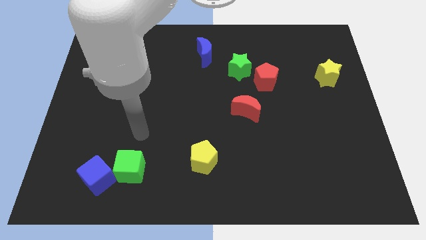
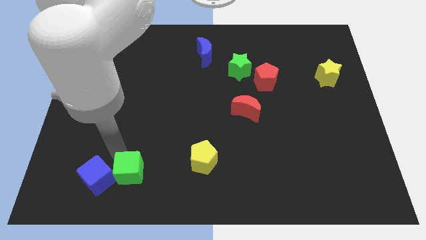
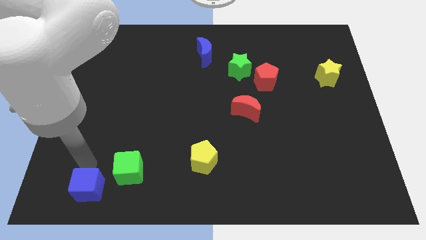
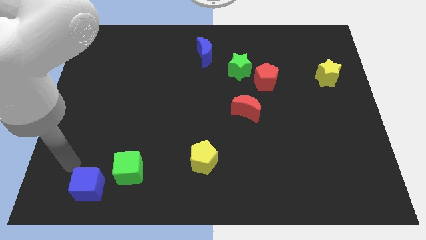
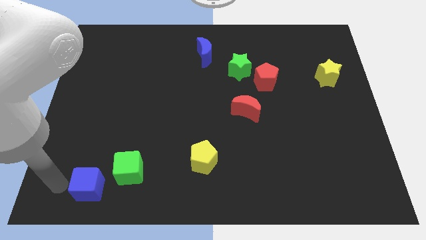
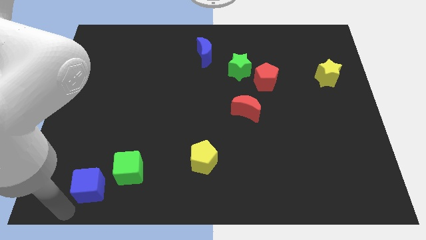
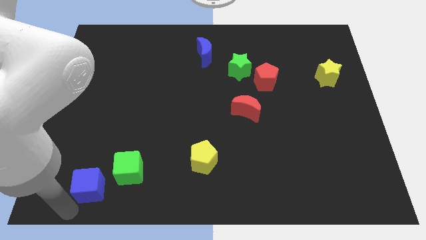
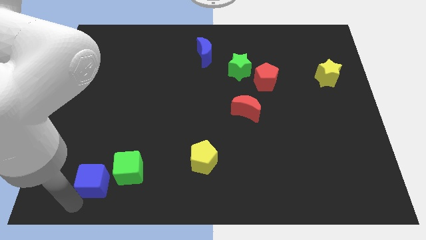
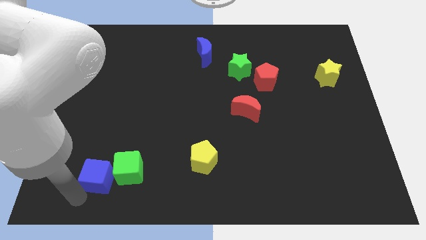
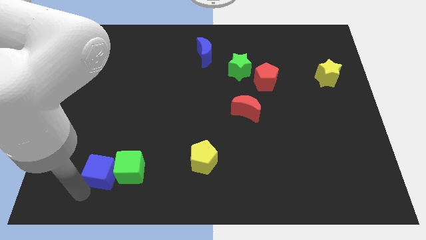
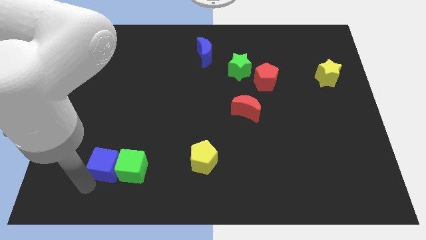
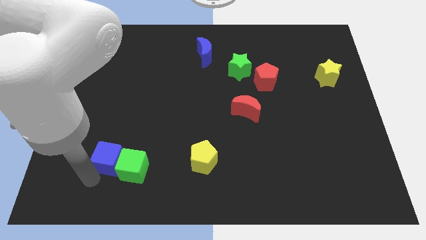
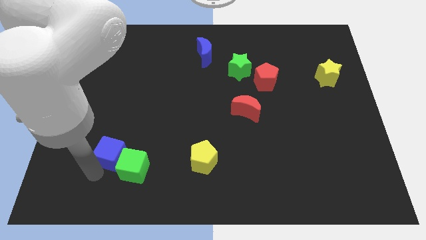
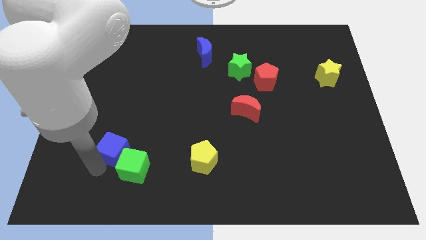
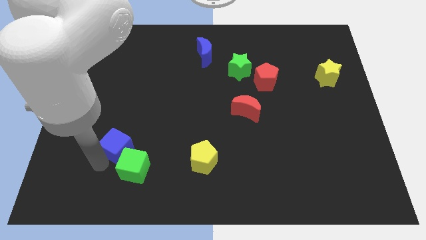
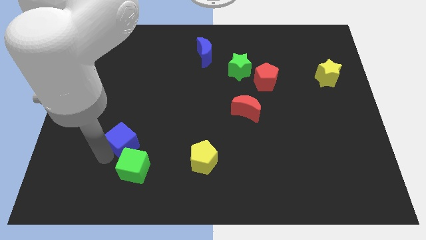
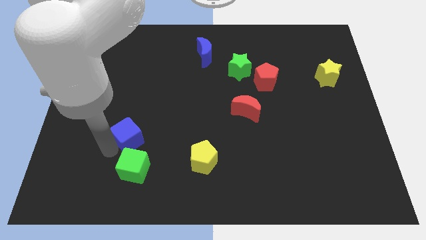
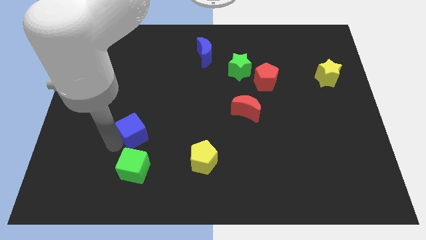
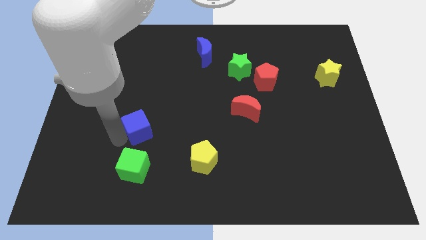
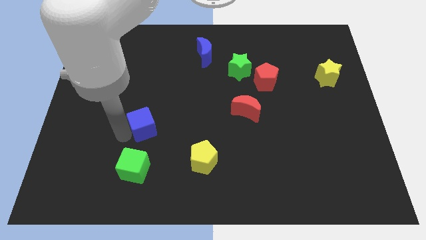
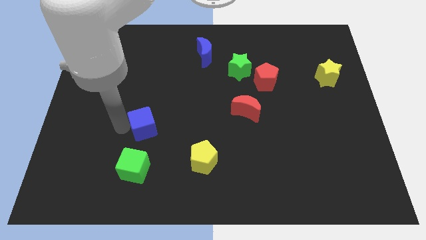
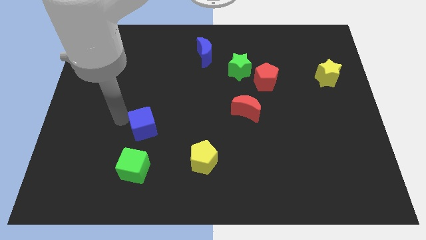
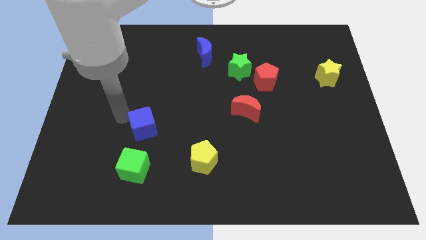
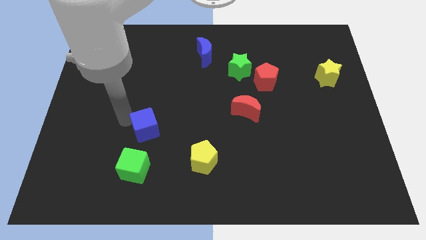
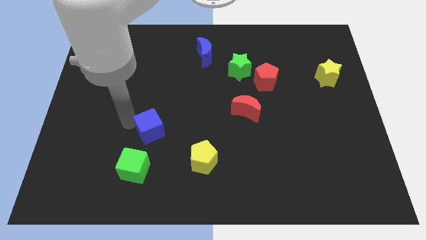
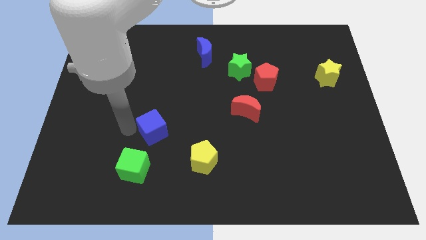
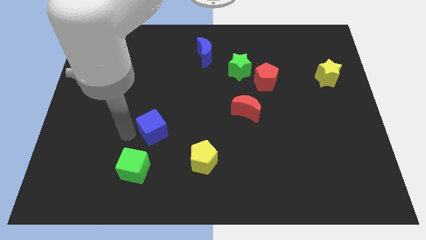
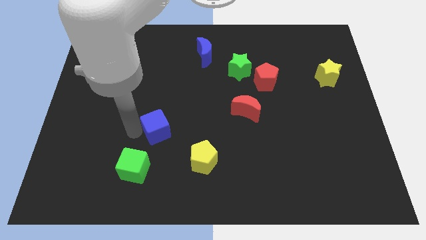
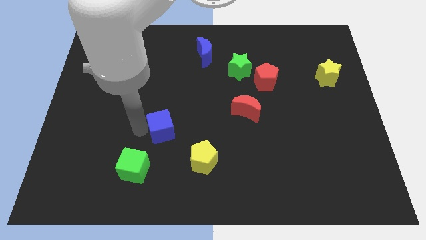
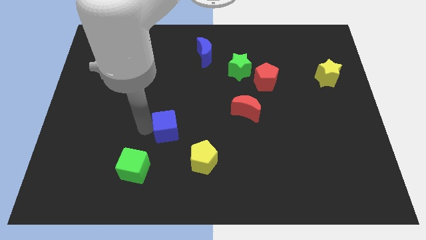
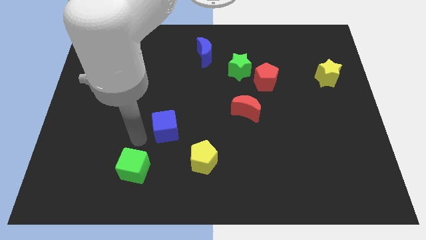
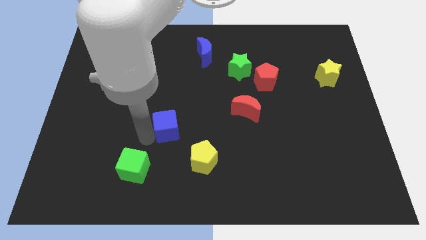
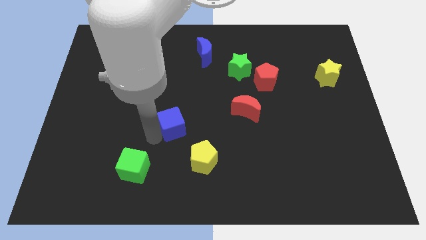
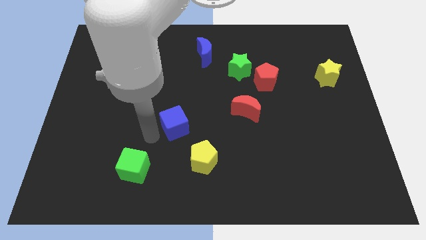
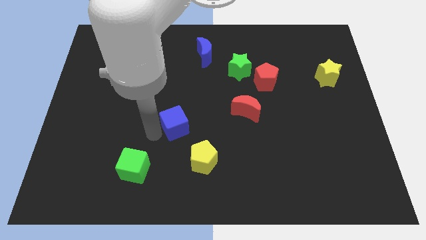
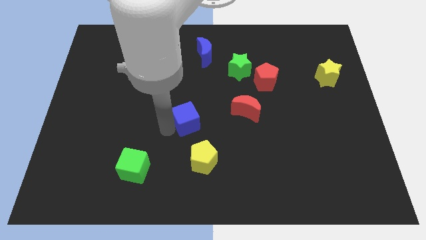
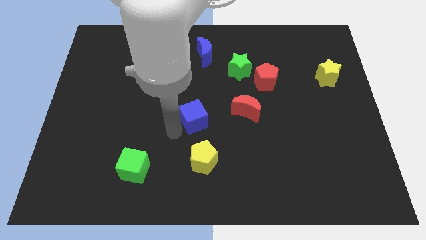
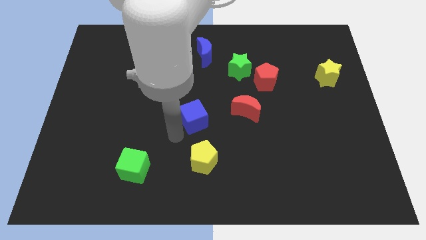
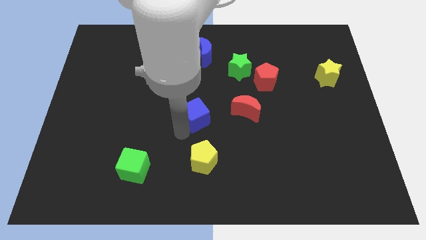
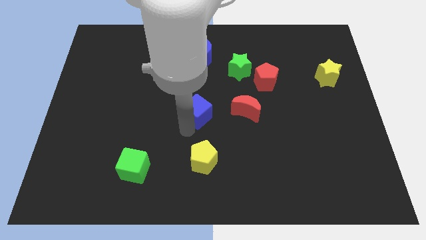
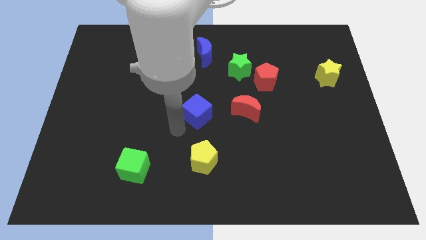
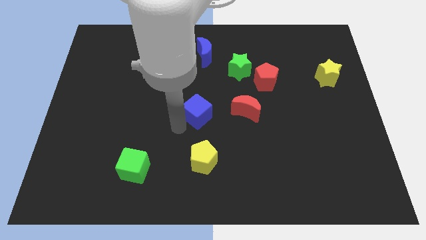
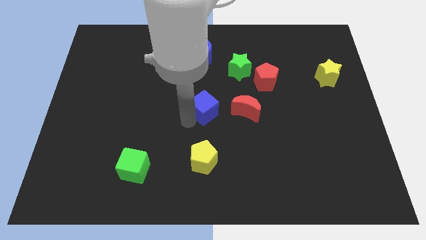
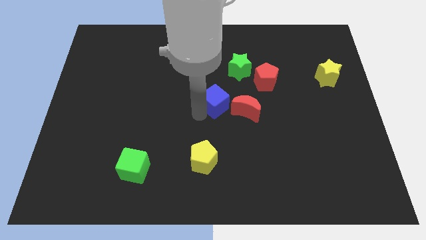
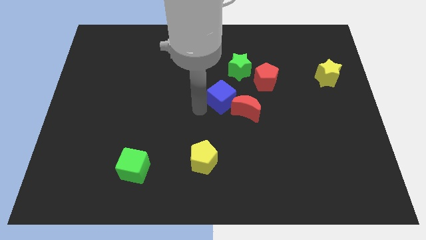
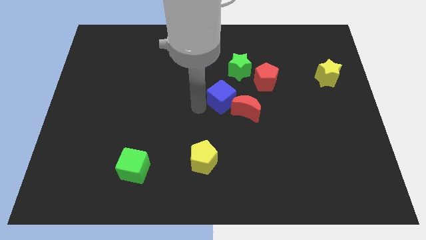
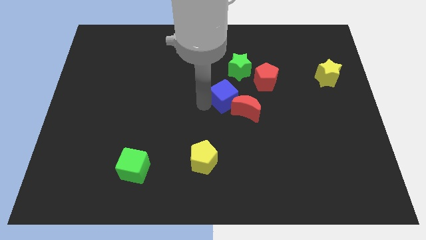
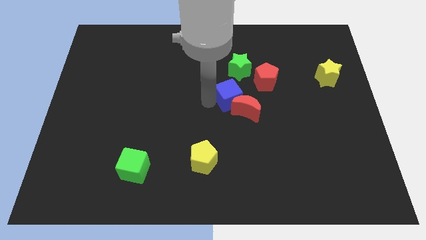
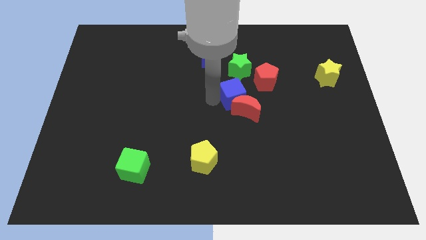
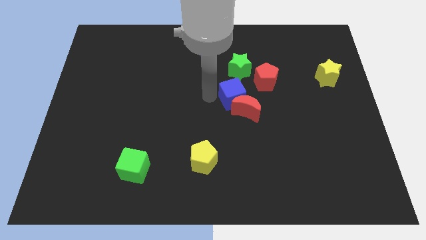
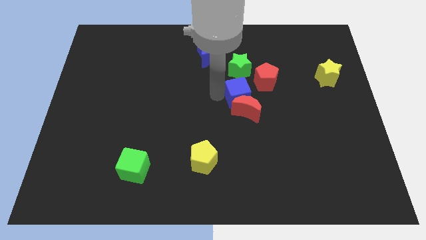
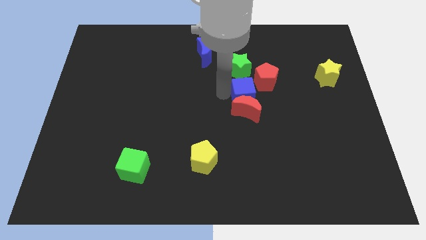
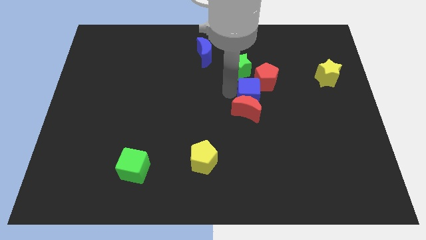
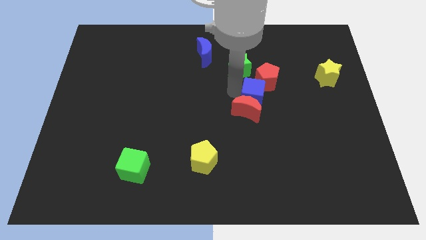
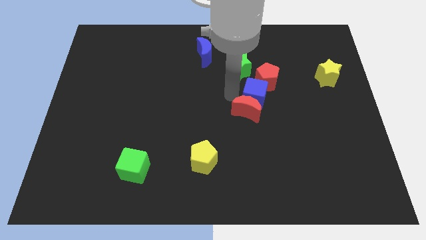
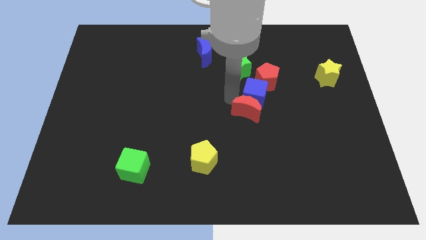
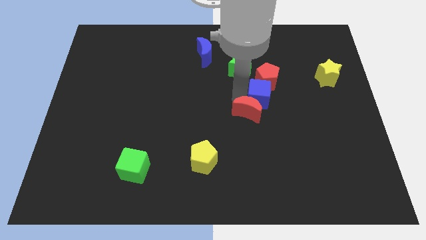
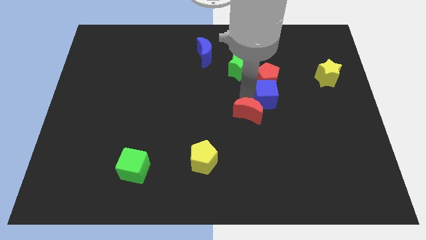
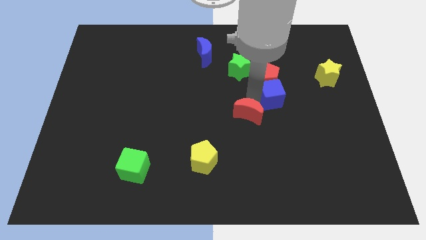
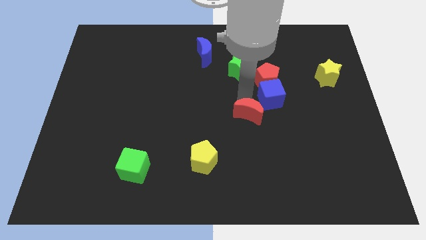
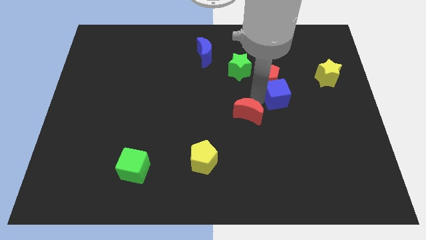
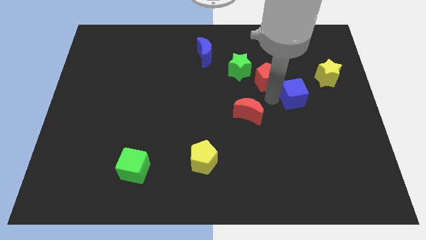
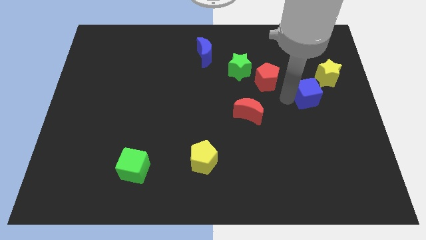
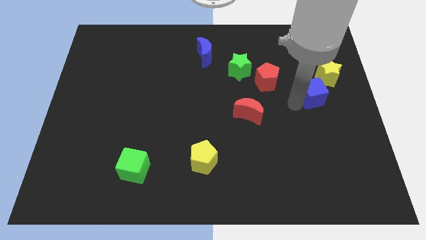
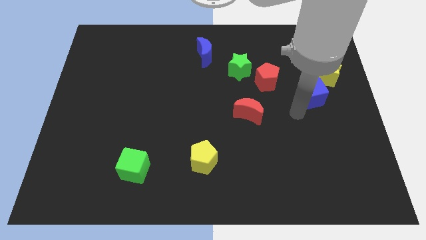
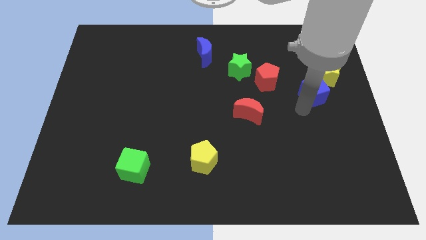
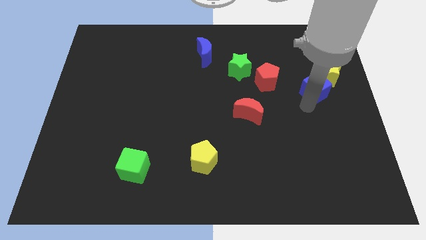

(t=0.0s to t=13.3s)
slide the blue cube next to the yellow star

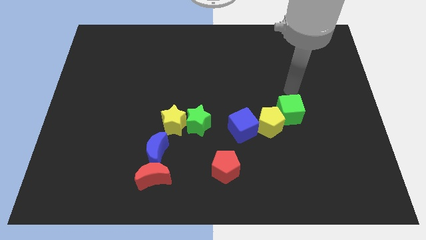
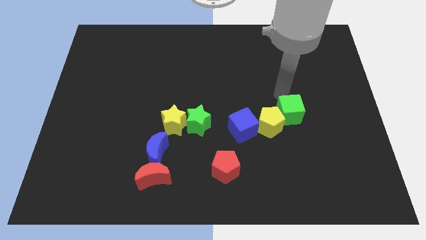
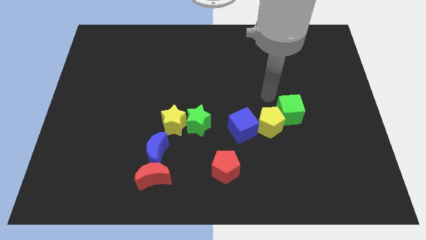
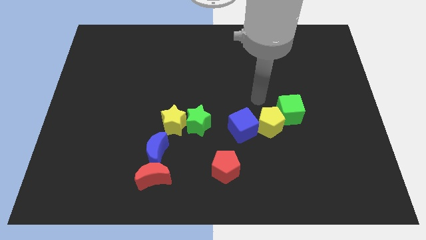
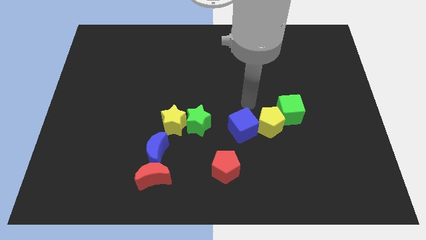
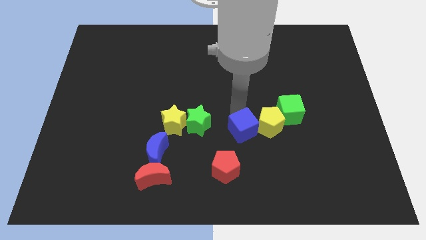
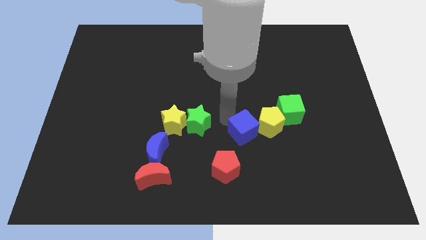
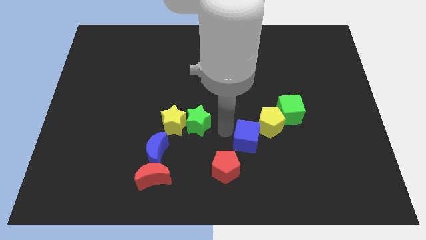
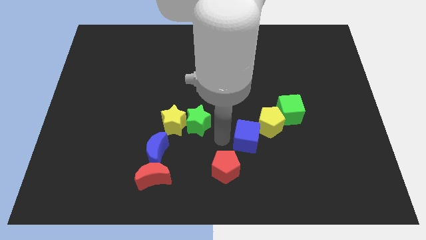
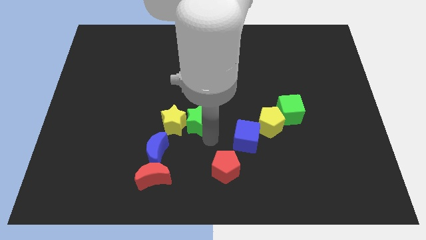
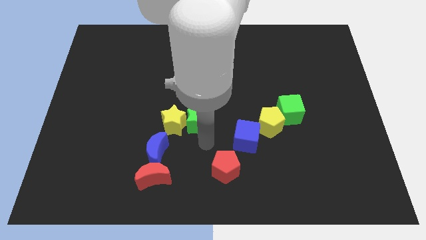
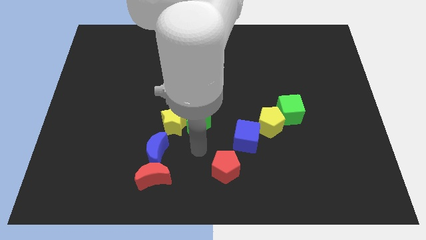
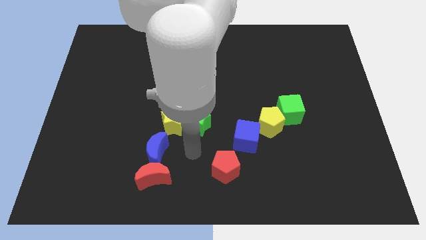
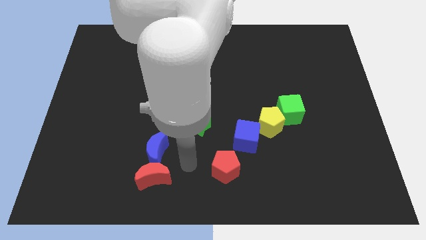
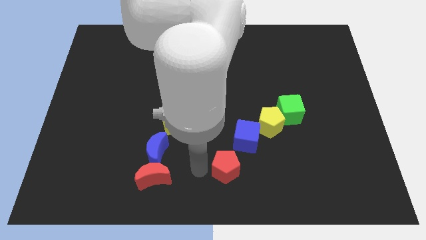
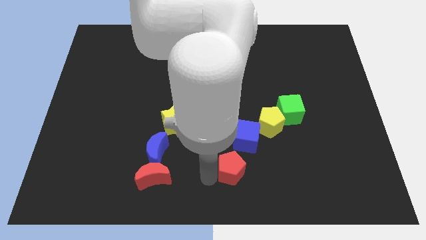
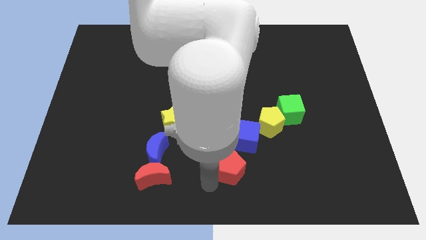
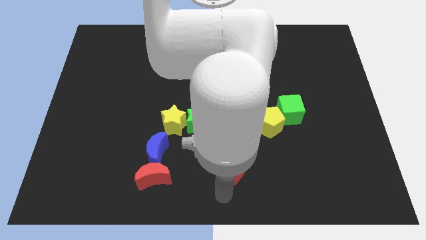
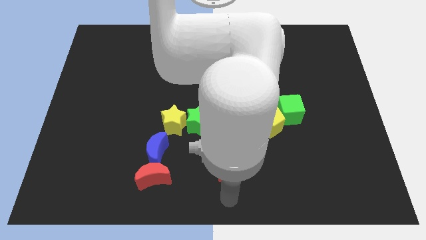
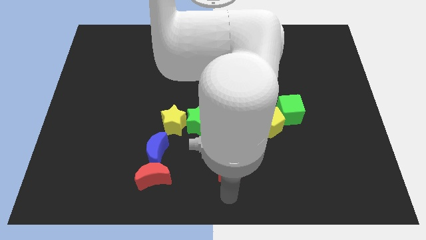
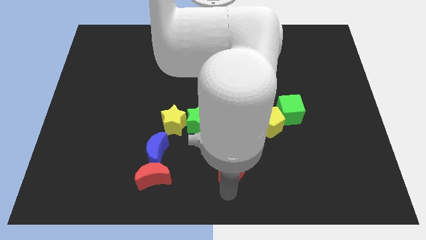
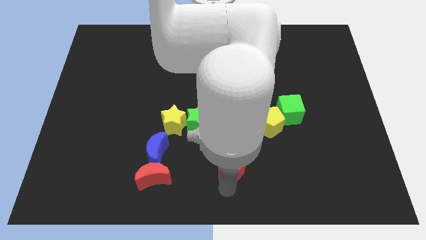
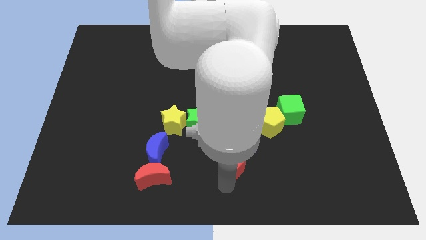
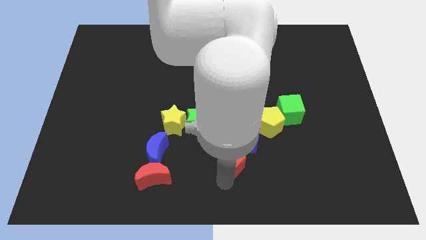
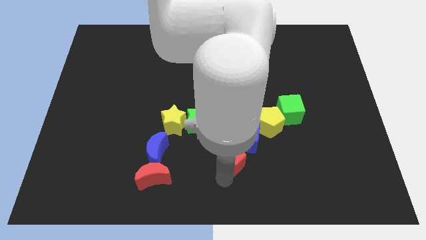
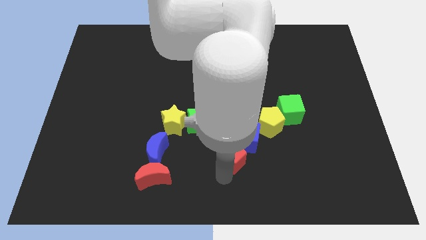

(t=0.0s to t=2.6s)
move the red pentagon to the blue cube
